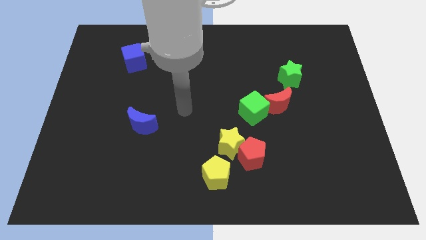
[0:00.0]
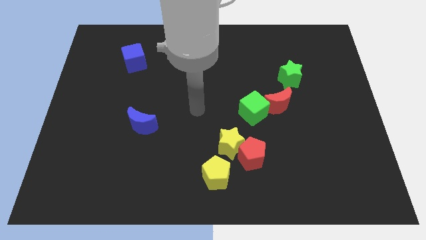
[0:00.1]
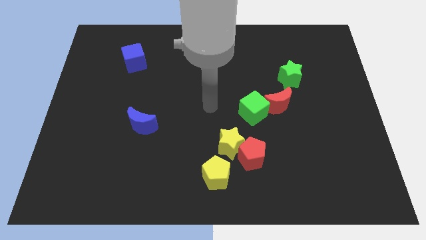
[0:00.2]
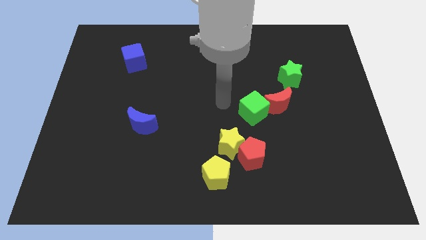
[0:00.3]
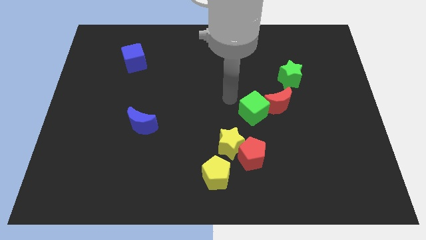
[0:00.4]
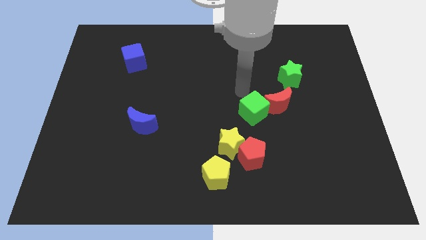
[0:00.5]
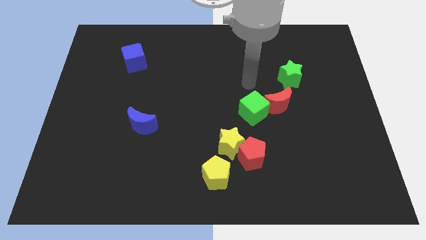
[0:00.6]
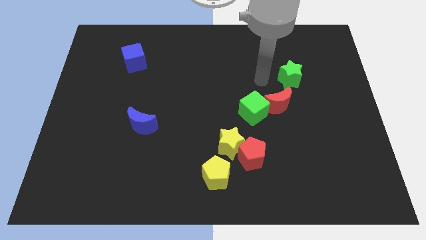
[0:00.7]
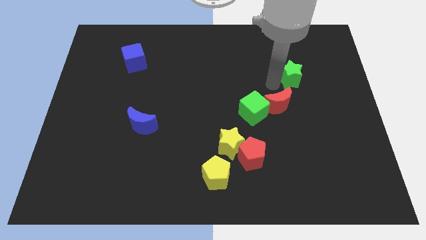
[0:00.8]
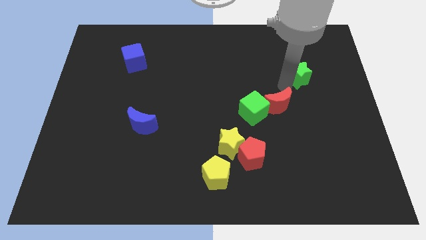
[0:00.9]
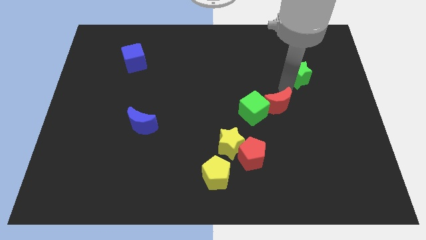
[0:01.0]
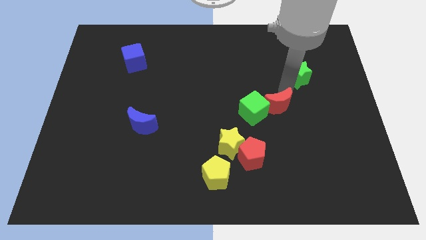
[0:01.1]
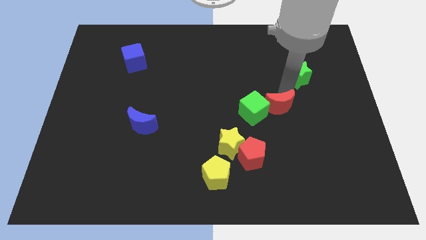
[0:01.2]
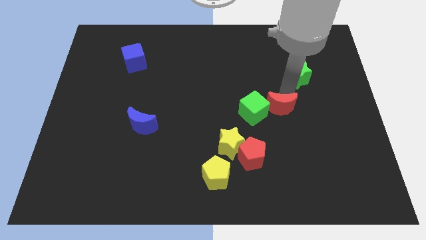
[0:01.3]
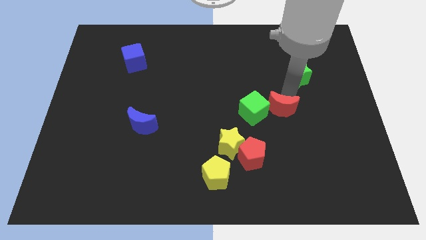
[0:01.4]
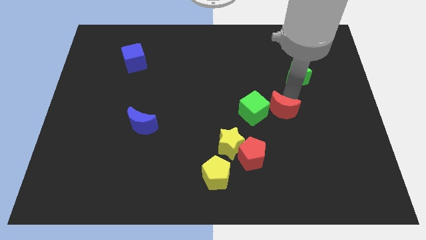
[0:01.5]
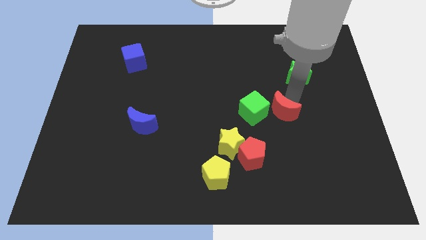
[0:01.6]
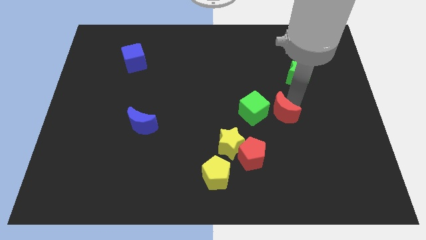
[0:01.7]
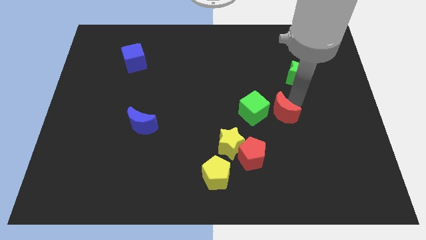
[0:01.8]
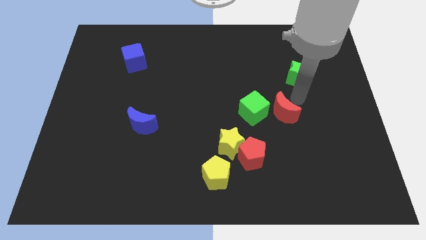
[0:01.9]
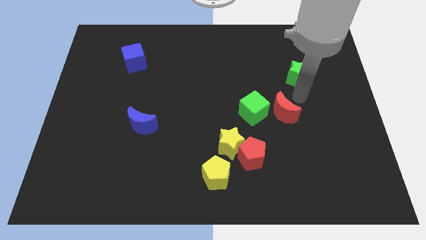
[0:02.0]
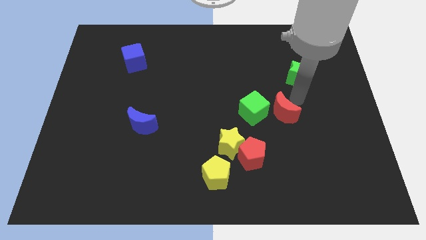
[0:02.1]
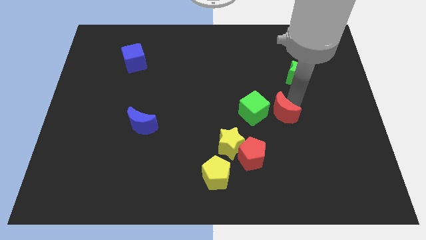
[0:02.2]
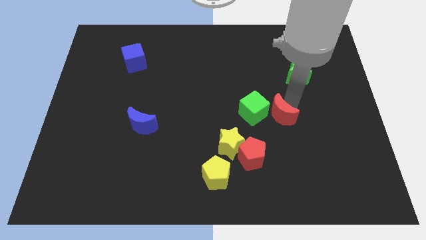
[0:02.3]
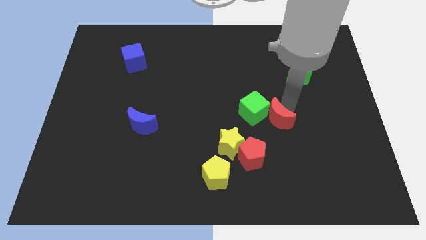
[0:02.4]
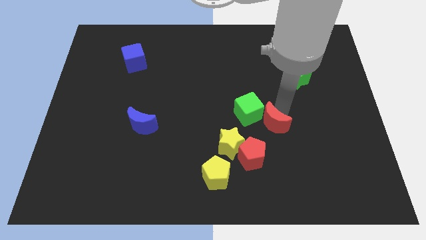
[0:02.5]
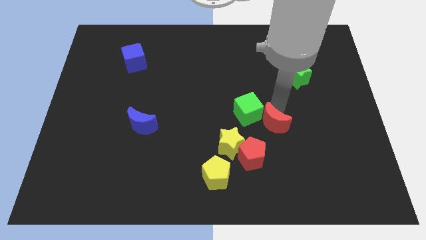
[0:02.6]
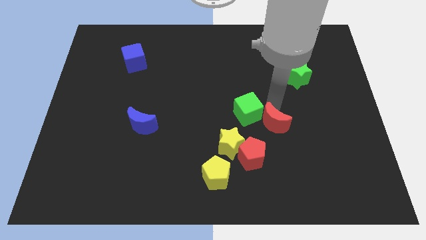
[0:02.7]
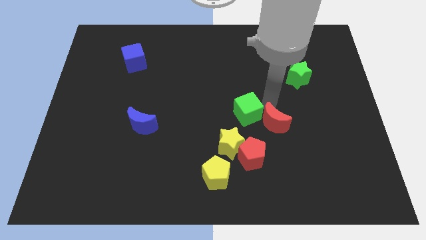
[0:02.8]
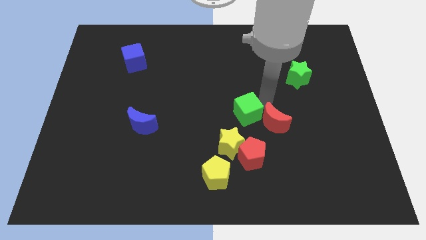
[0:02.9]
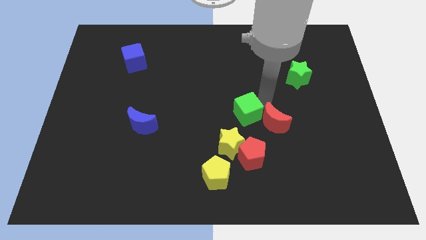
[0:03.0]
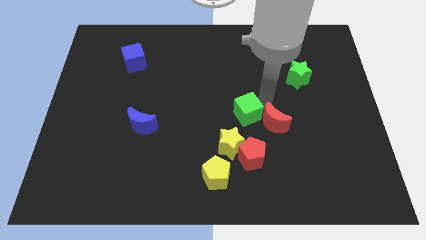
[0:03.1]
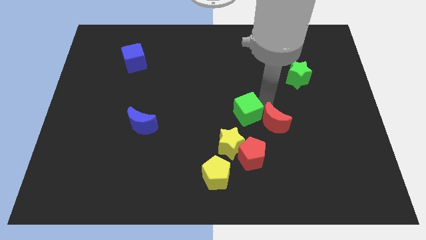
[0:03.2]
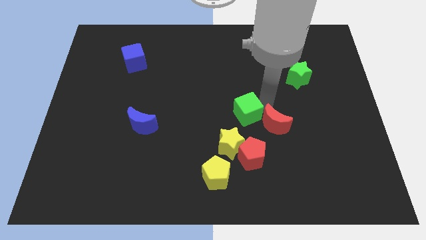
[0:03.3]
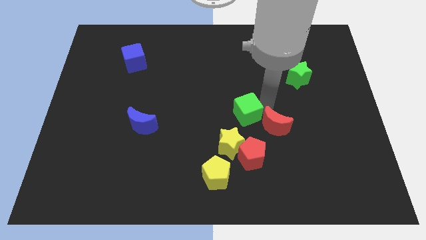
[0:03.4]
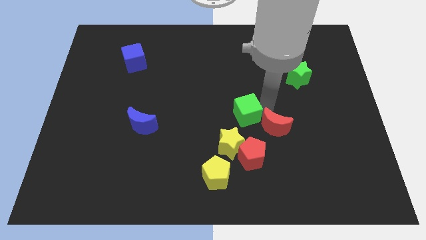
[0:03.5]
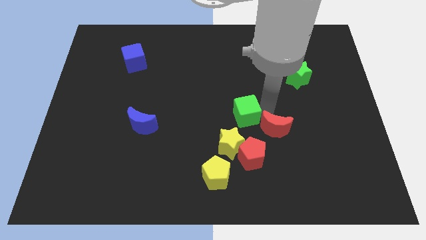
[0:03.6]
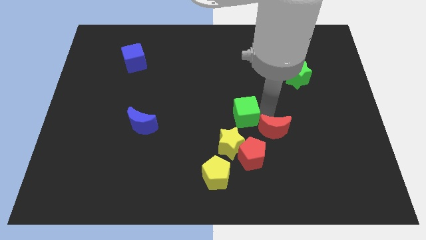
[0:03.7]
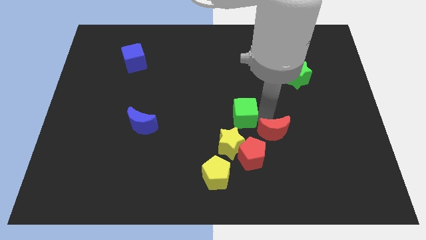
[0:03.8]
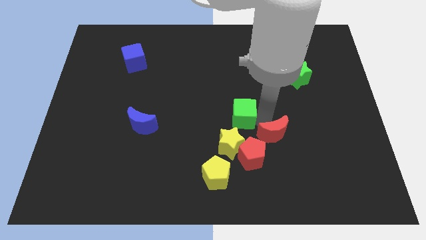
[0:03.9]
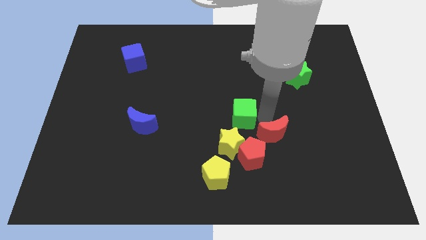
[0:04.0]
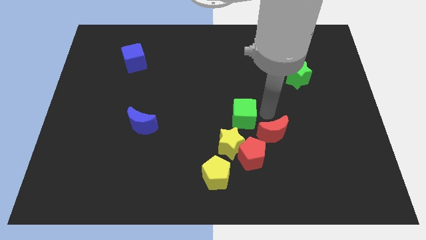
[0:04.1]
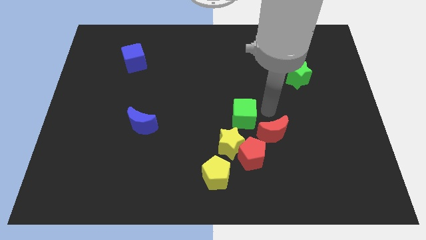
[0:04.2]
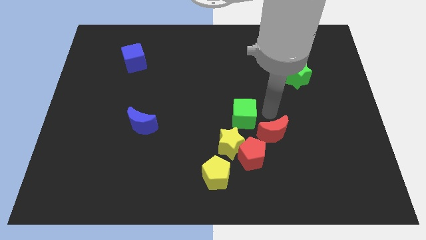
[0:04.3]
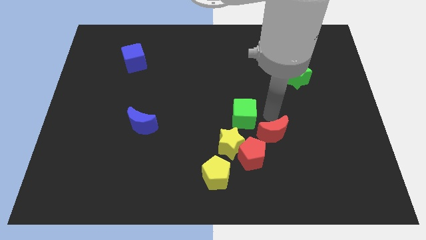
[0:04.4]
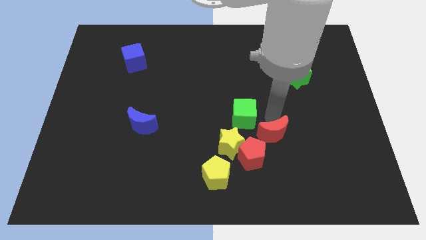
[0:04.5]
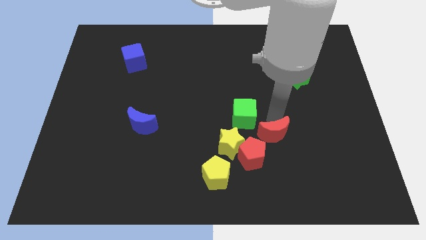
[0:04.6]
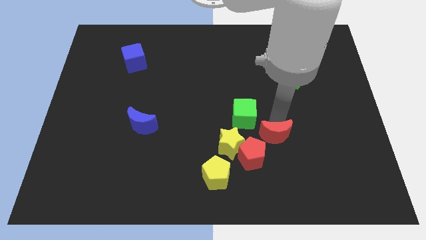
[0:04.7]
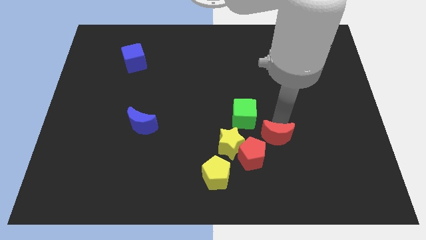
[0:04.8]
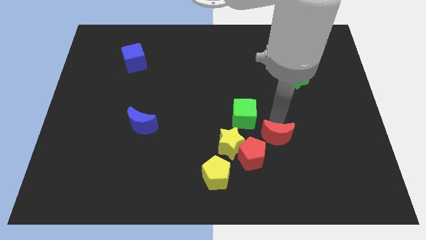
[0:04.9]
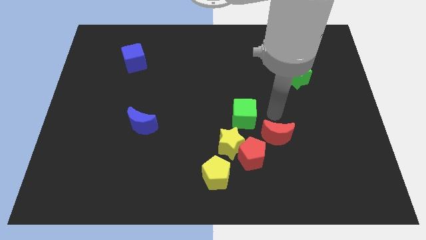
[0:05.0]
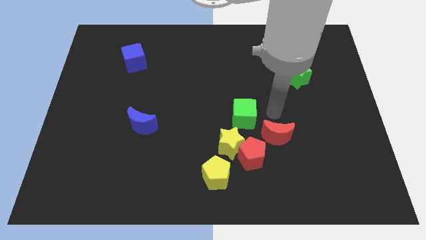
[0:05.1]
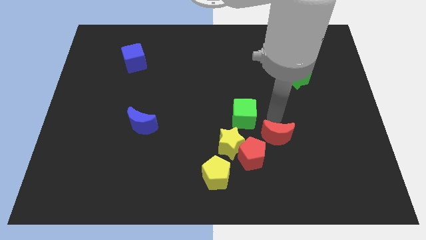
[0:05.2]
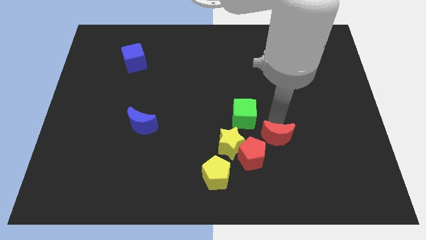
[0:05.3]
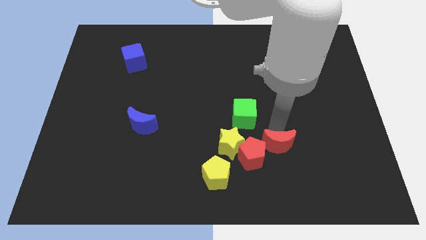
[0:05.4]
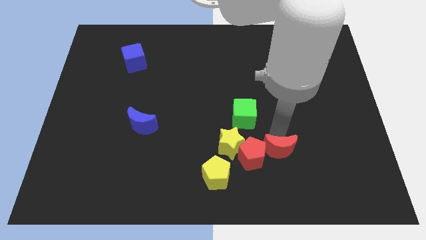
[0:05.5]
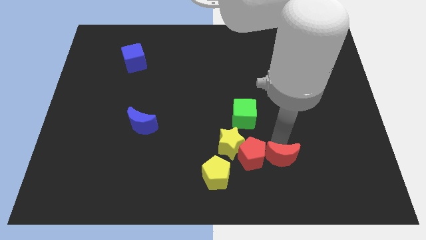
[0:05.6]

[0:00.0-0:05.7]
slide the red moon to the bottom right of the red pentagon

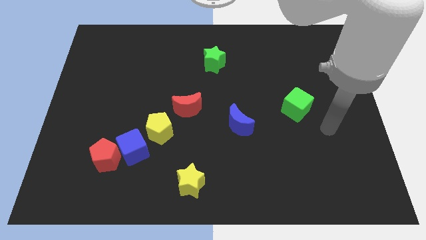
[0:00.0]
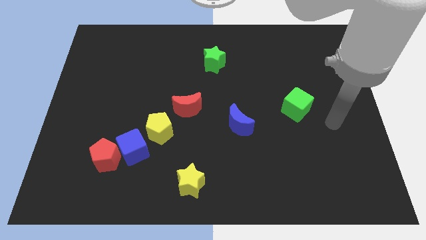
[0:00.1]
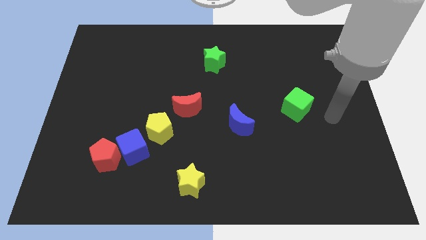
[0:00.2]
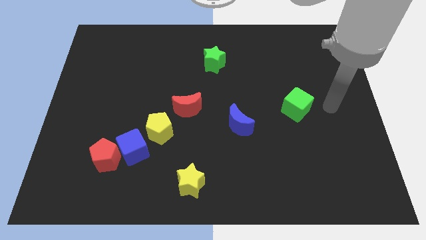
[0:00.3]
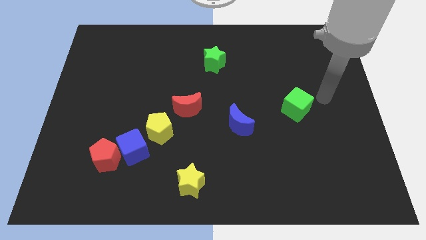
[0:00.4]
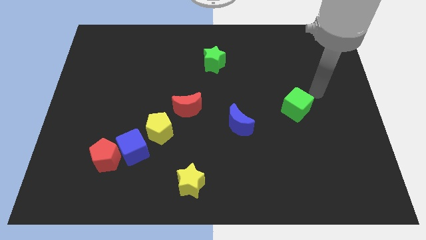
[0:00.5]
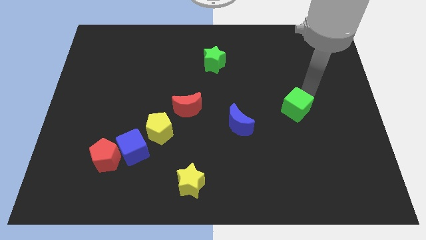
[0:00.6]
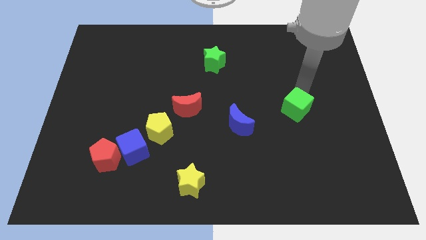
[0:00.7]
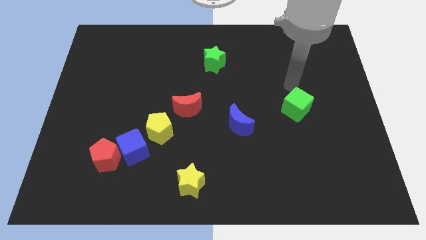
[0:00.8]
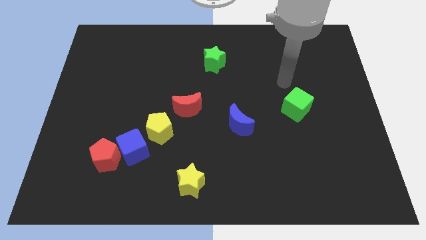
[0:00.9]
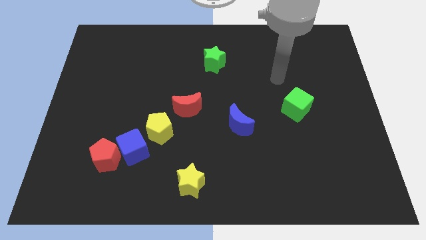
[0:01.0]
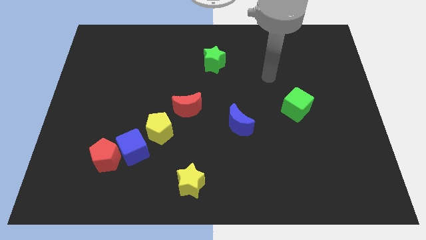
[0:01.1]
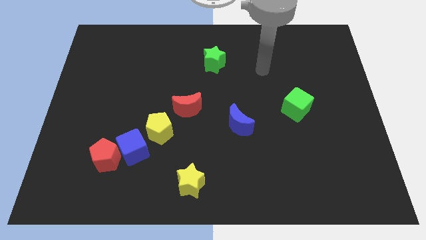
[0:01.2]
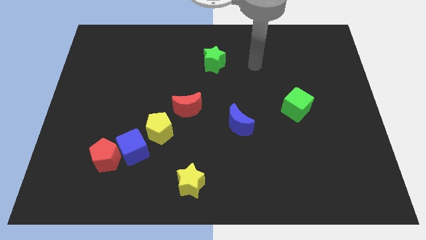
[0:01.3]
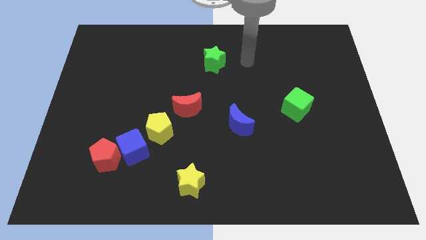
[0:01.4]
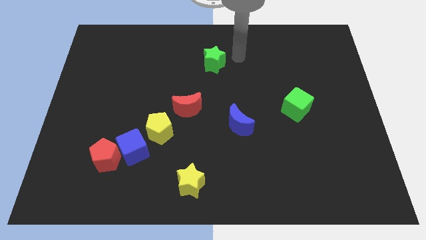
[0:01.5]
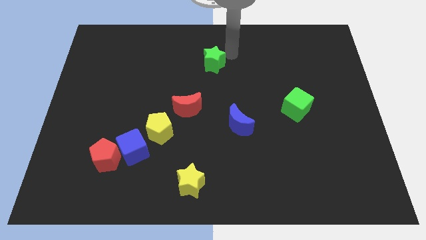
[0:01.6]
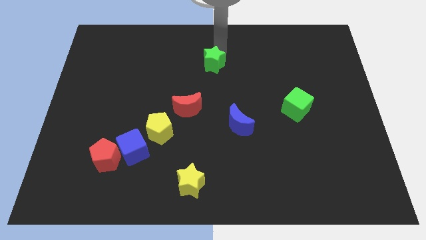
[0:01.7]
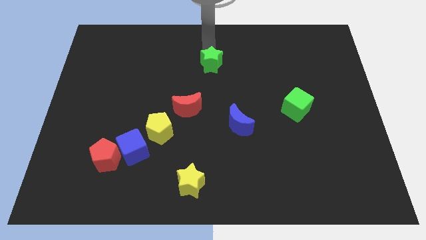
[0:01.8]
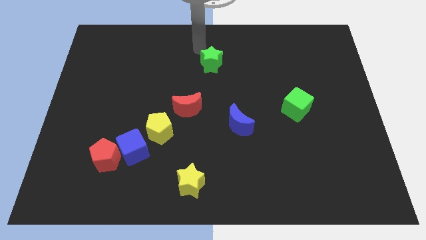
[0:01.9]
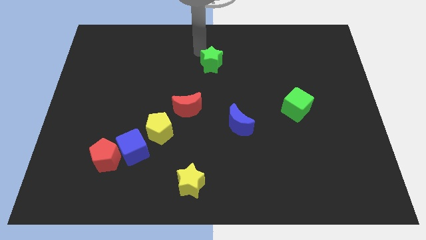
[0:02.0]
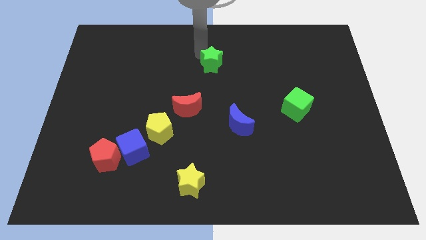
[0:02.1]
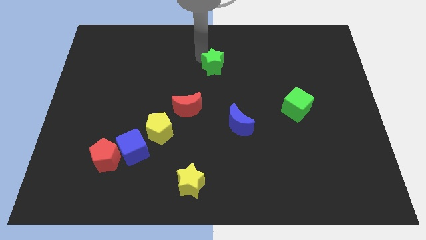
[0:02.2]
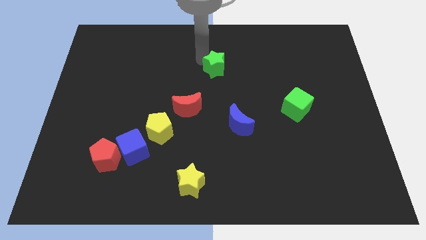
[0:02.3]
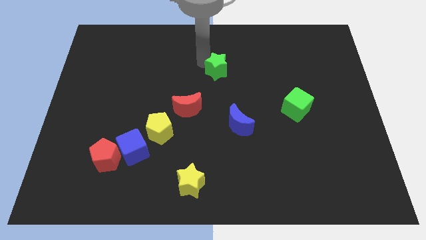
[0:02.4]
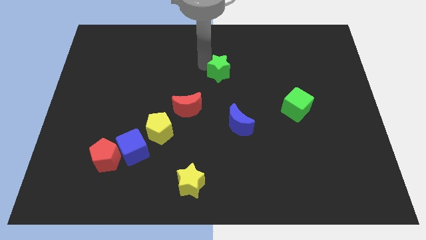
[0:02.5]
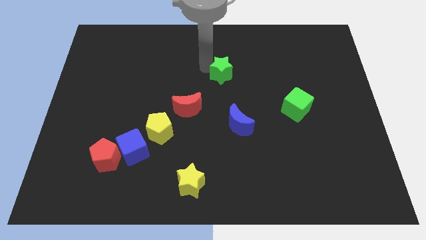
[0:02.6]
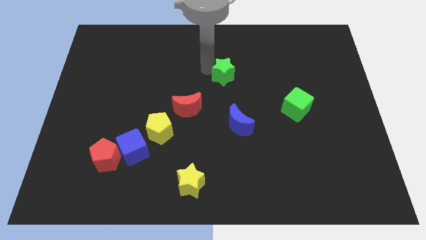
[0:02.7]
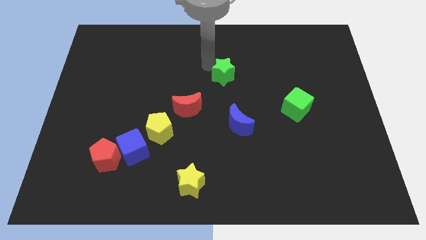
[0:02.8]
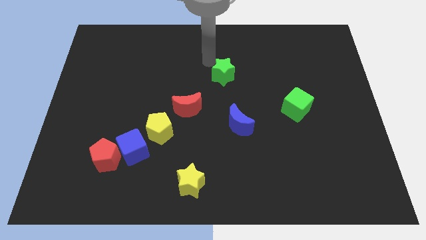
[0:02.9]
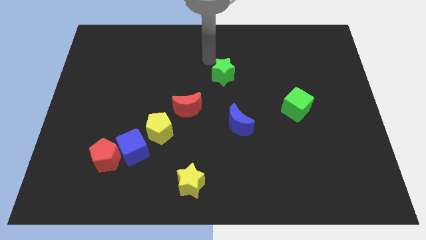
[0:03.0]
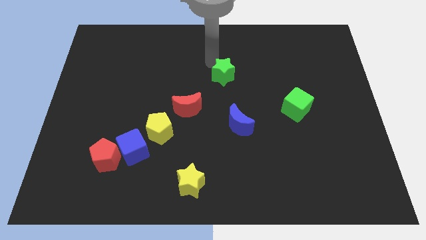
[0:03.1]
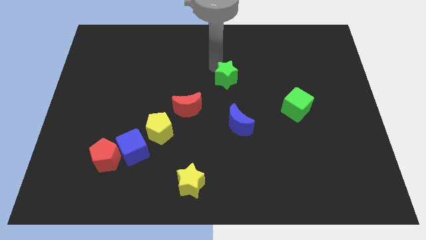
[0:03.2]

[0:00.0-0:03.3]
push the green star to the top of the blue moon
